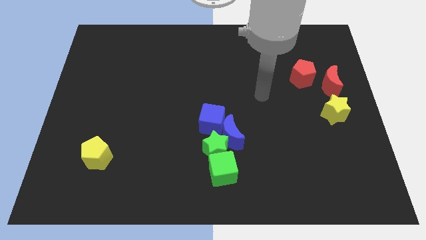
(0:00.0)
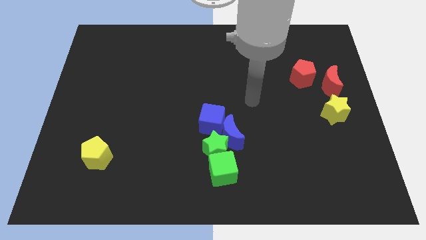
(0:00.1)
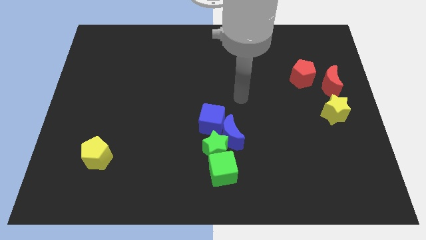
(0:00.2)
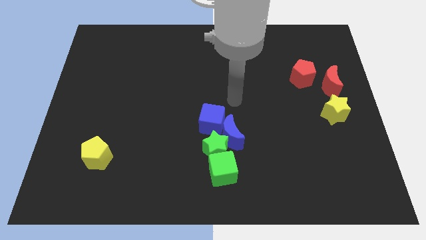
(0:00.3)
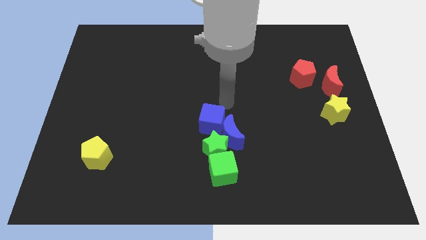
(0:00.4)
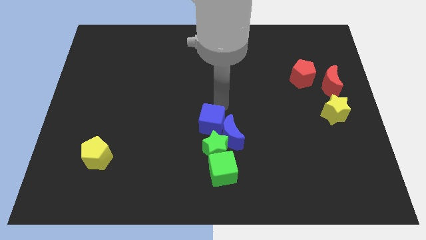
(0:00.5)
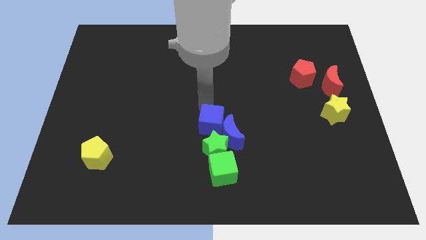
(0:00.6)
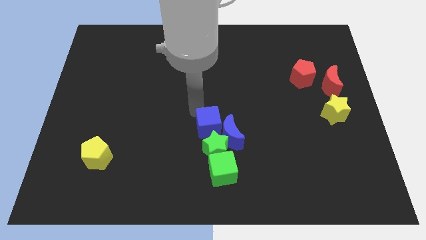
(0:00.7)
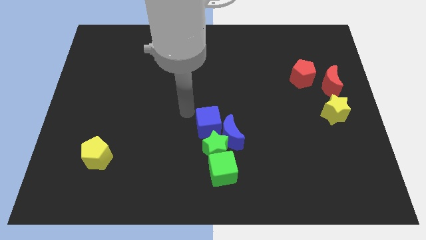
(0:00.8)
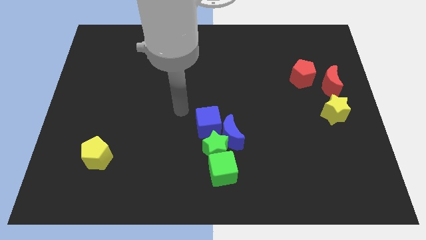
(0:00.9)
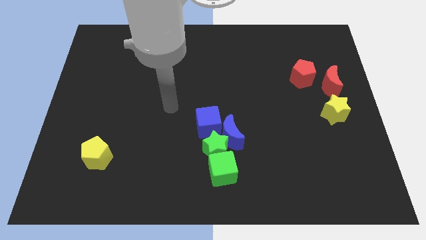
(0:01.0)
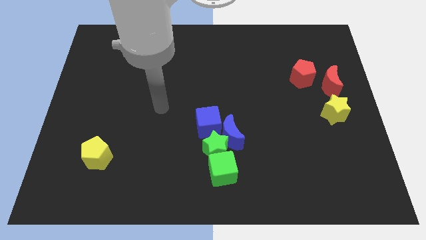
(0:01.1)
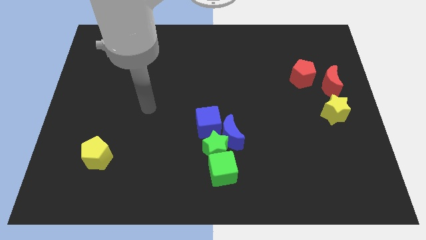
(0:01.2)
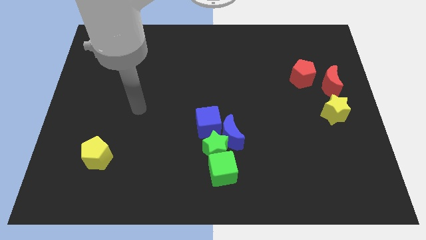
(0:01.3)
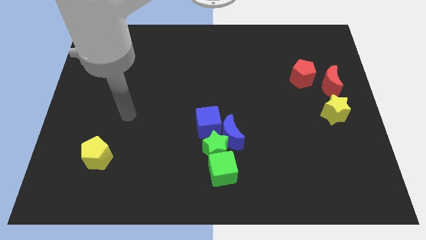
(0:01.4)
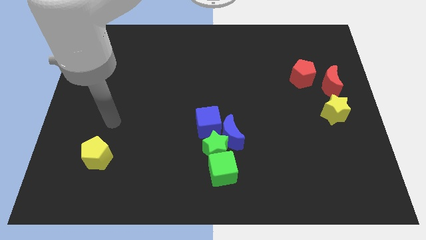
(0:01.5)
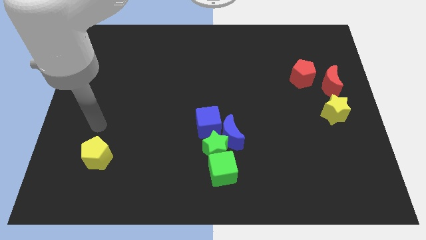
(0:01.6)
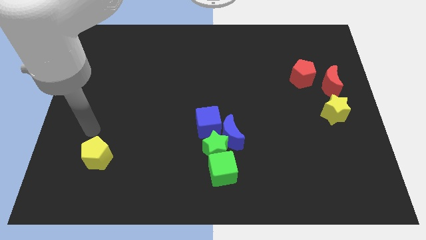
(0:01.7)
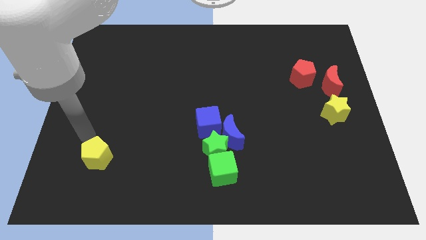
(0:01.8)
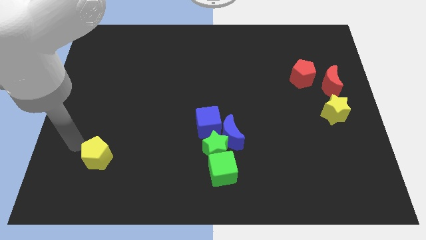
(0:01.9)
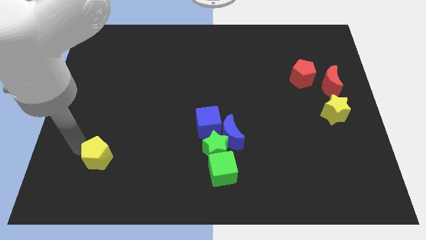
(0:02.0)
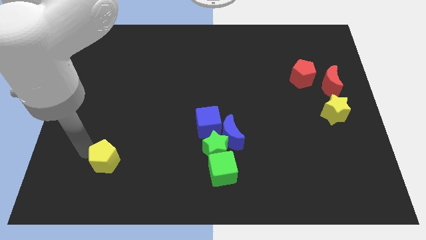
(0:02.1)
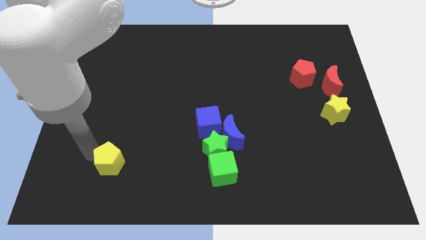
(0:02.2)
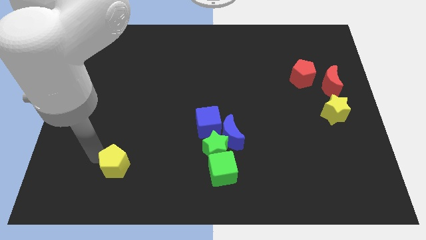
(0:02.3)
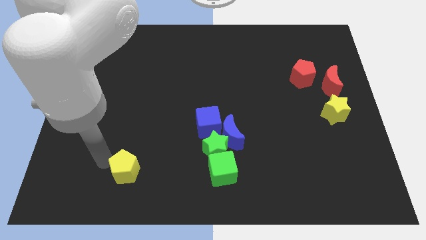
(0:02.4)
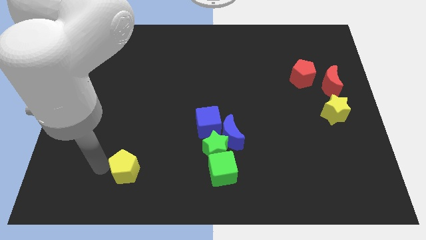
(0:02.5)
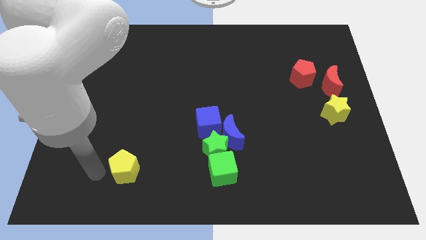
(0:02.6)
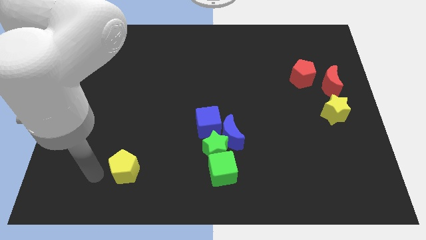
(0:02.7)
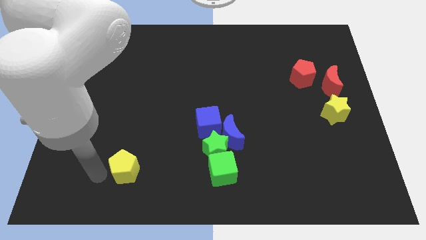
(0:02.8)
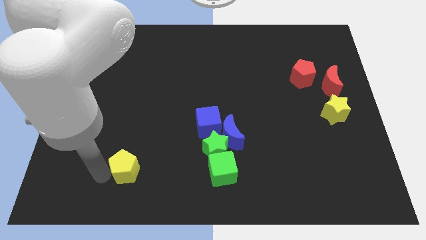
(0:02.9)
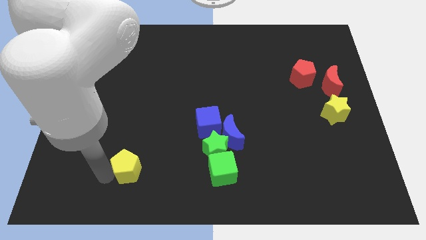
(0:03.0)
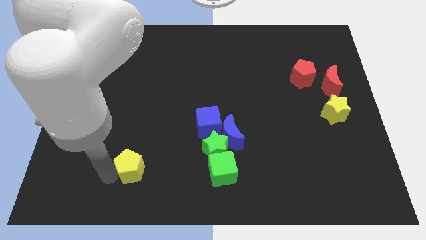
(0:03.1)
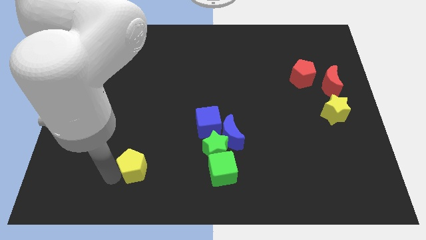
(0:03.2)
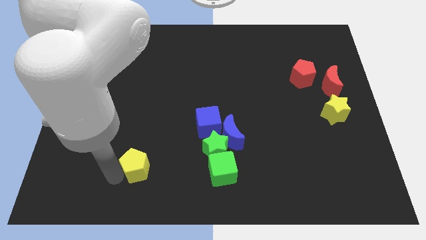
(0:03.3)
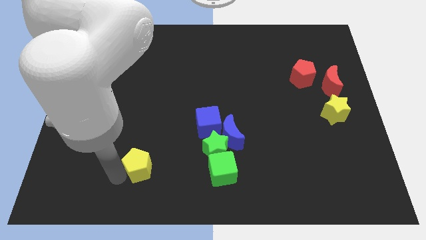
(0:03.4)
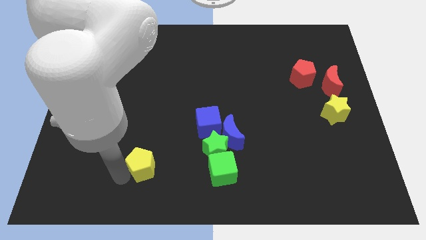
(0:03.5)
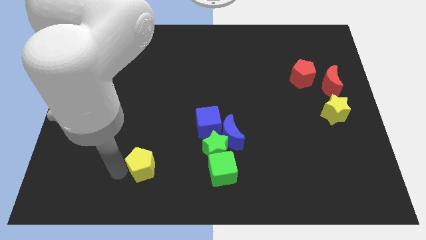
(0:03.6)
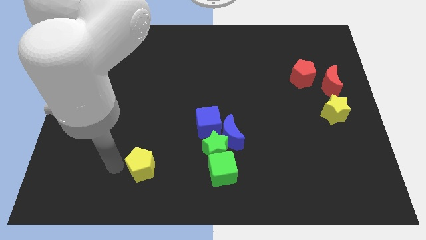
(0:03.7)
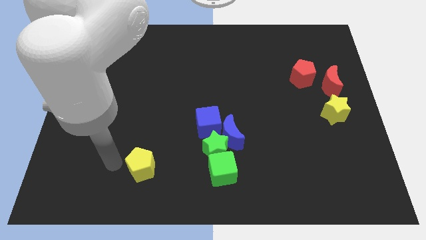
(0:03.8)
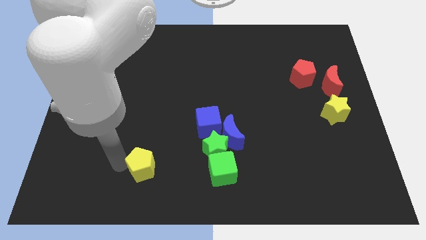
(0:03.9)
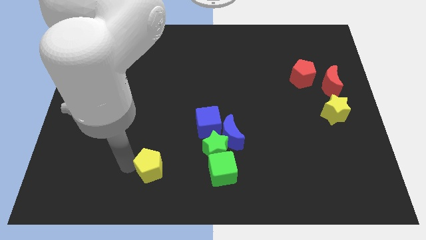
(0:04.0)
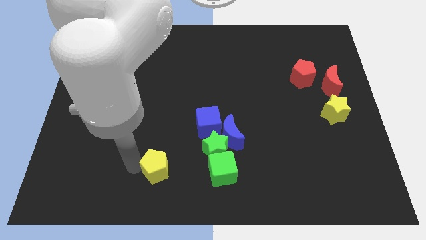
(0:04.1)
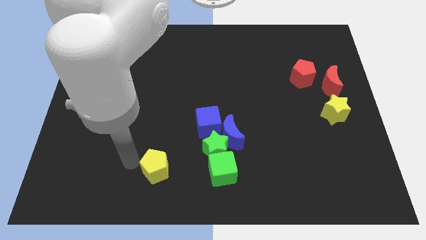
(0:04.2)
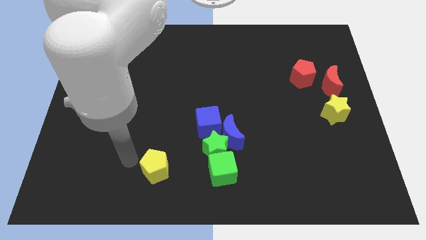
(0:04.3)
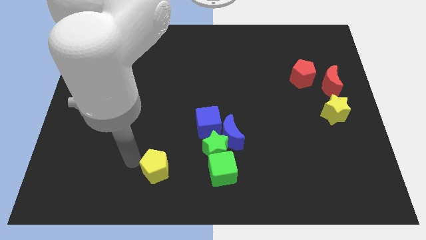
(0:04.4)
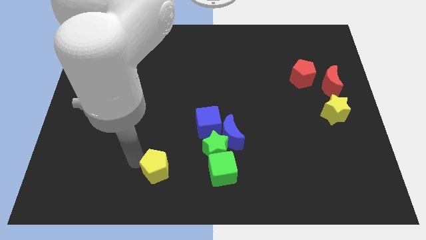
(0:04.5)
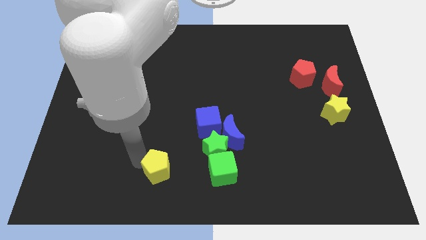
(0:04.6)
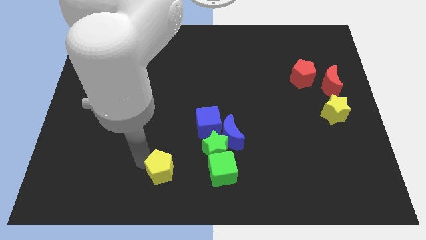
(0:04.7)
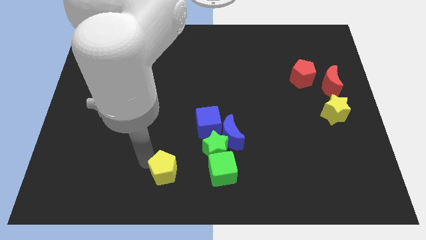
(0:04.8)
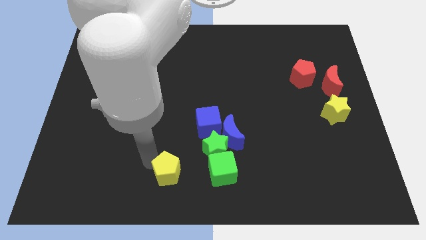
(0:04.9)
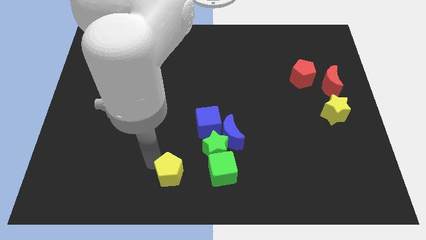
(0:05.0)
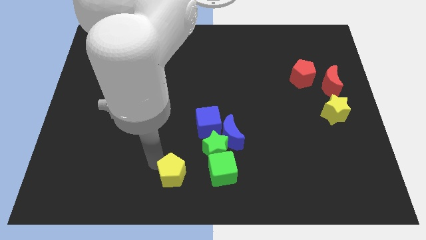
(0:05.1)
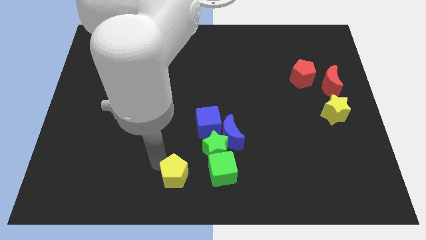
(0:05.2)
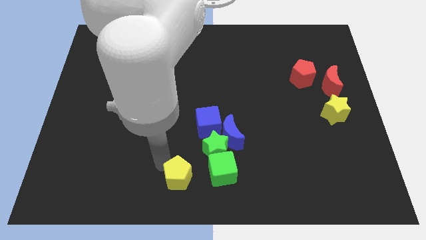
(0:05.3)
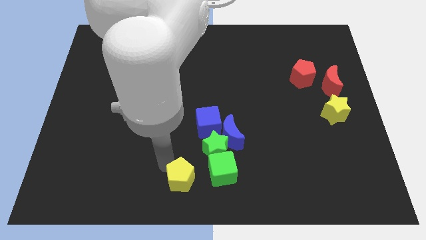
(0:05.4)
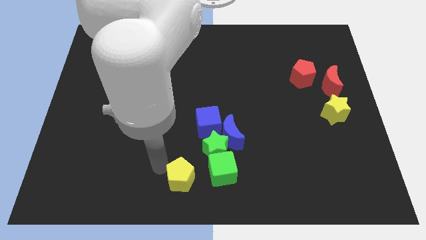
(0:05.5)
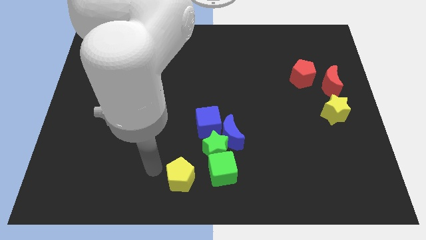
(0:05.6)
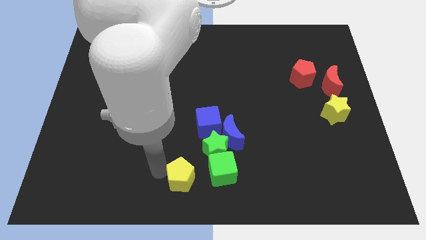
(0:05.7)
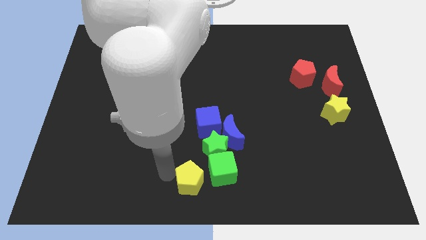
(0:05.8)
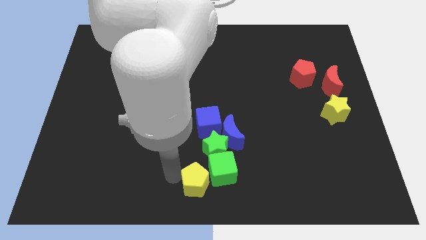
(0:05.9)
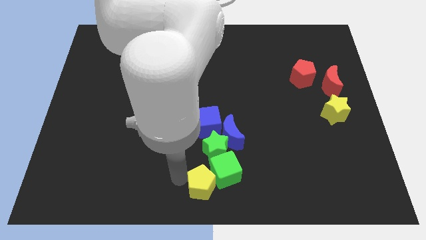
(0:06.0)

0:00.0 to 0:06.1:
move the yellow pentagon right

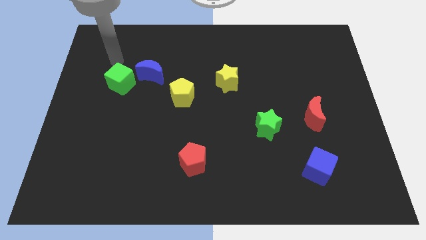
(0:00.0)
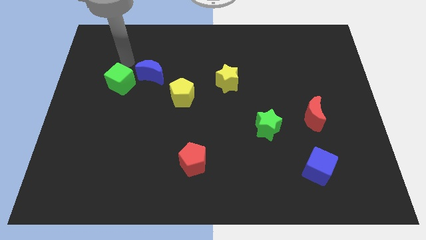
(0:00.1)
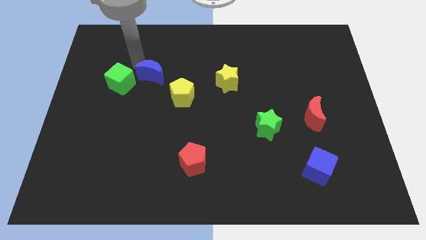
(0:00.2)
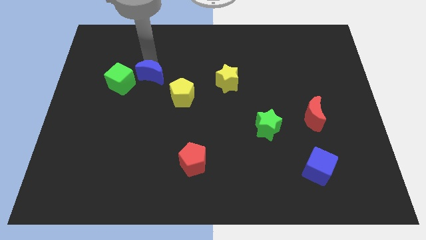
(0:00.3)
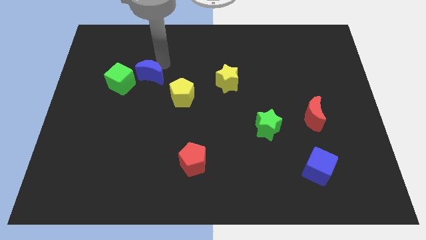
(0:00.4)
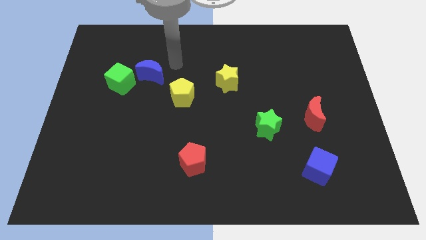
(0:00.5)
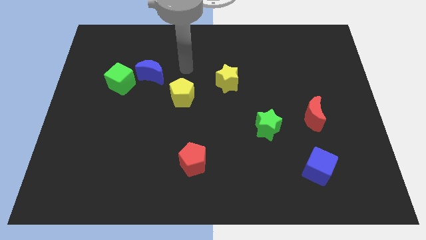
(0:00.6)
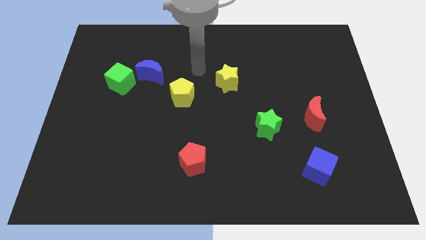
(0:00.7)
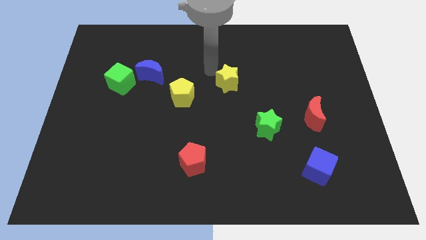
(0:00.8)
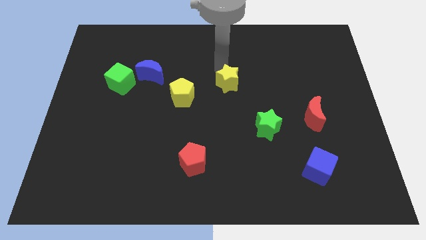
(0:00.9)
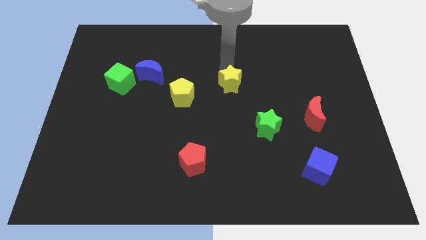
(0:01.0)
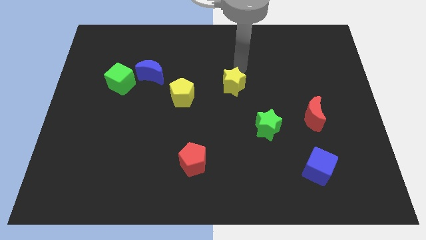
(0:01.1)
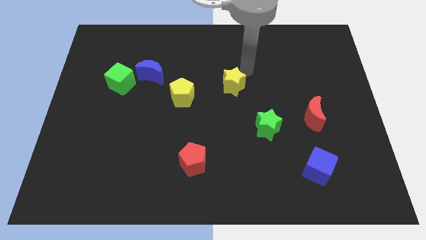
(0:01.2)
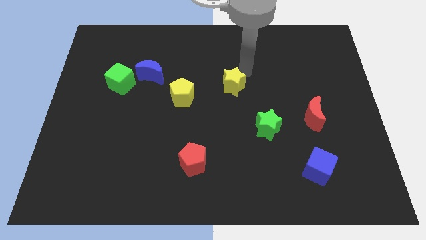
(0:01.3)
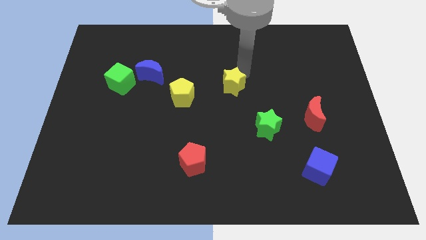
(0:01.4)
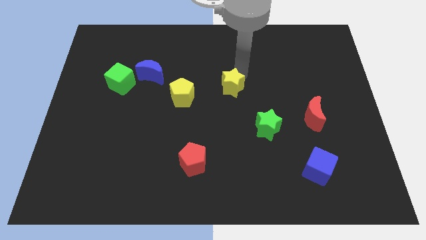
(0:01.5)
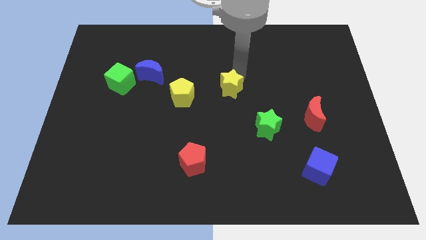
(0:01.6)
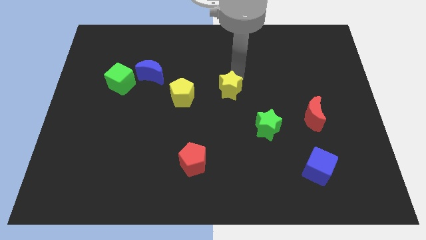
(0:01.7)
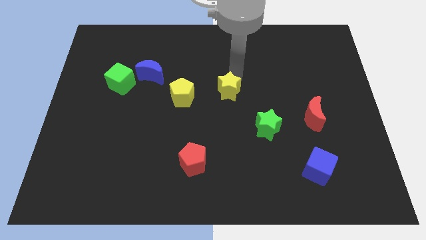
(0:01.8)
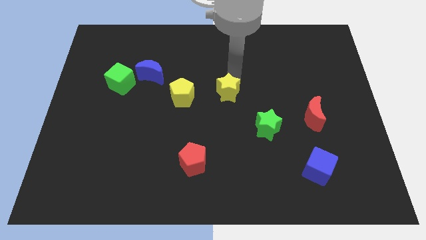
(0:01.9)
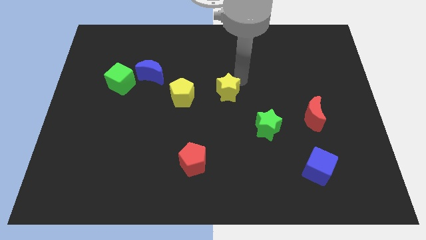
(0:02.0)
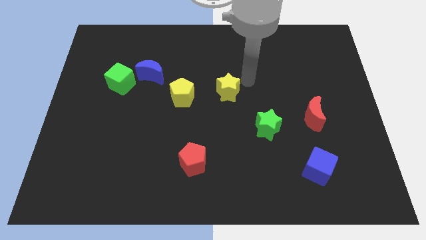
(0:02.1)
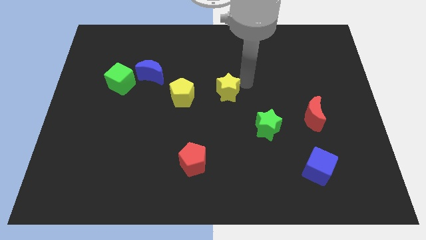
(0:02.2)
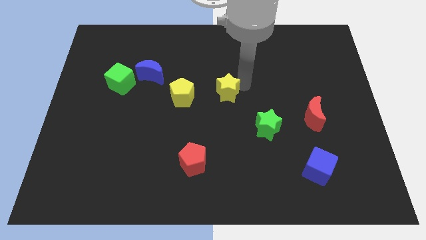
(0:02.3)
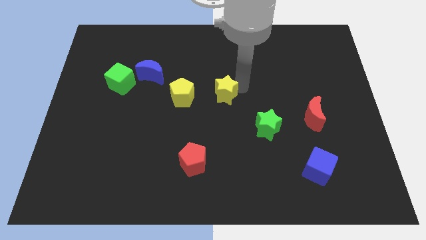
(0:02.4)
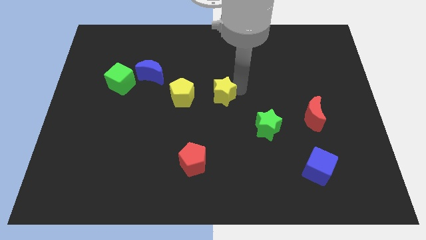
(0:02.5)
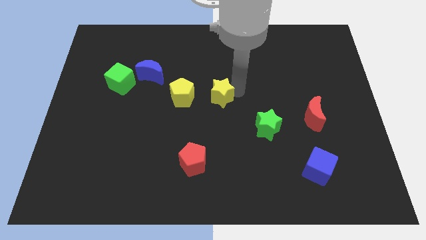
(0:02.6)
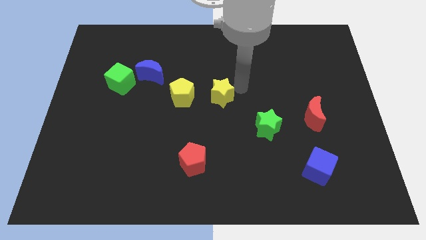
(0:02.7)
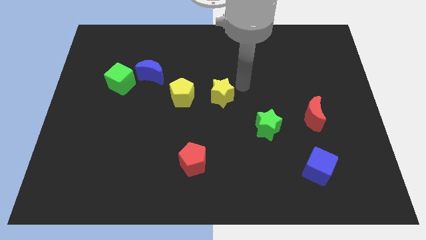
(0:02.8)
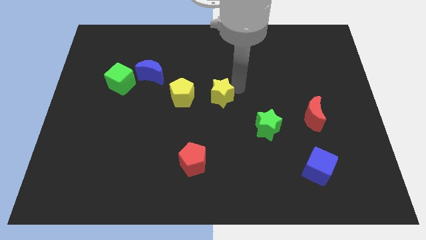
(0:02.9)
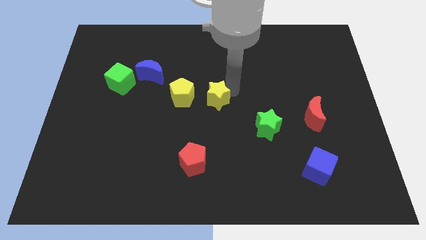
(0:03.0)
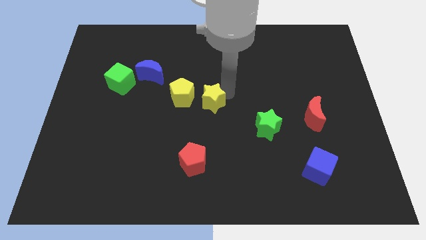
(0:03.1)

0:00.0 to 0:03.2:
slightly push the yellow star downwards and then left
